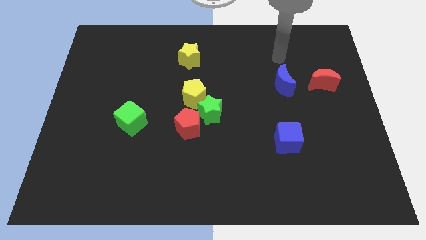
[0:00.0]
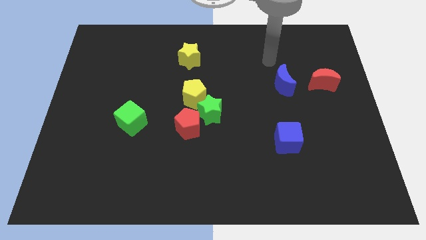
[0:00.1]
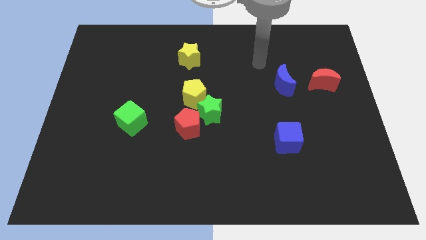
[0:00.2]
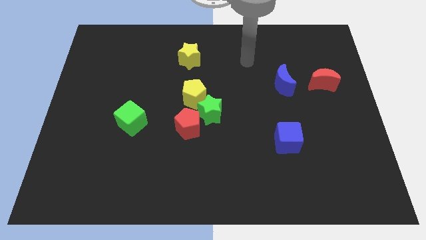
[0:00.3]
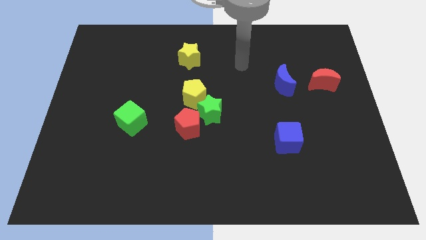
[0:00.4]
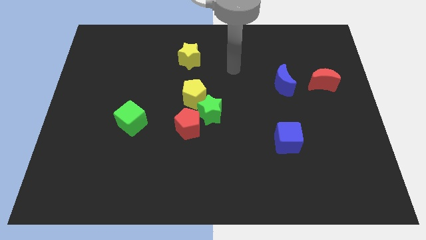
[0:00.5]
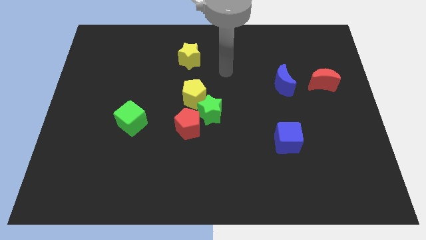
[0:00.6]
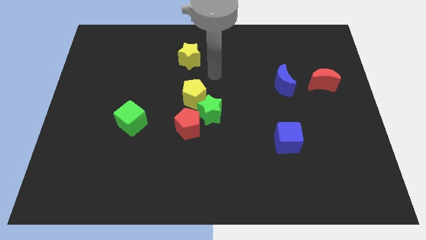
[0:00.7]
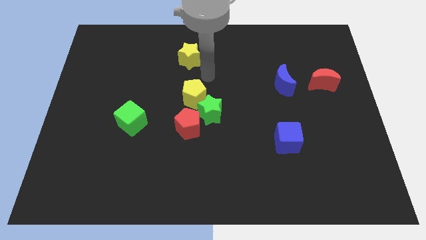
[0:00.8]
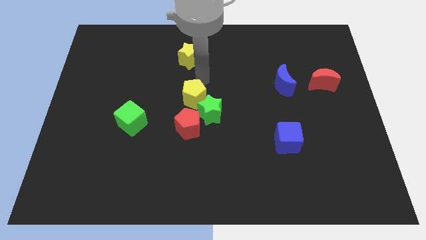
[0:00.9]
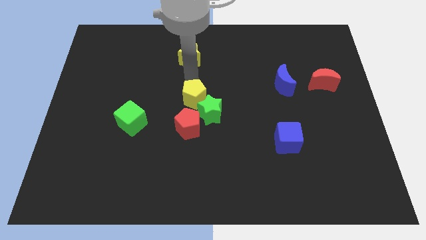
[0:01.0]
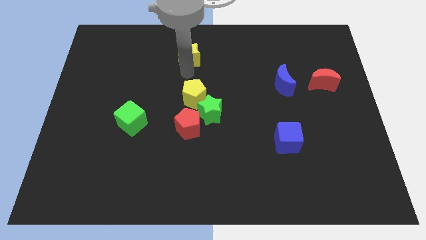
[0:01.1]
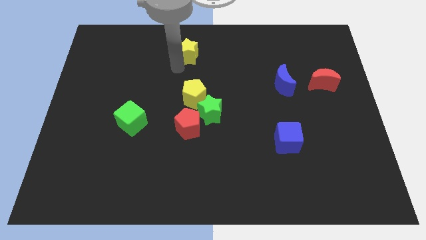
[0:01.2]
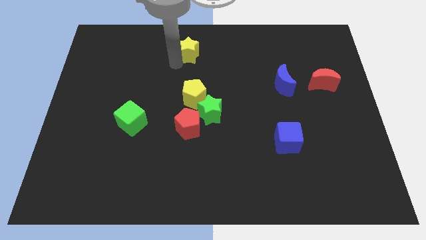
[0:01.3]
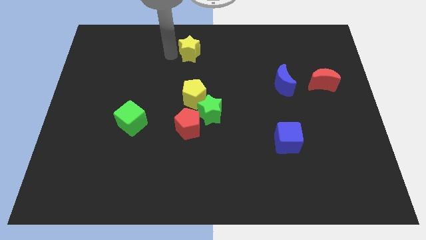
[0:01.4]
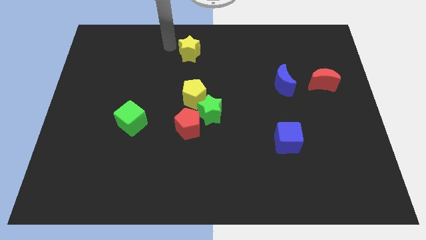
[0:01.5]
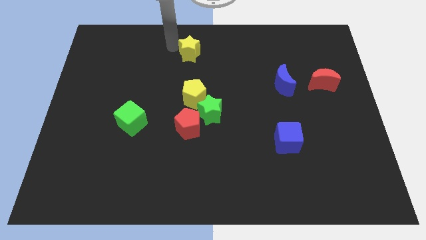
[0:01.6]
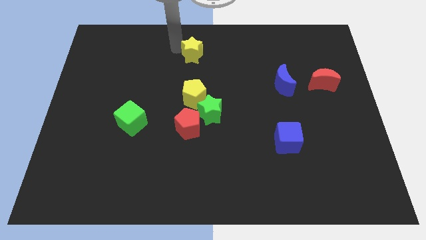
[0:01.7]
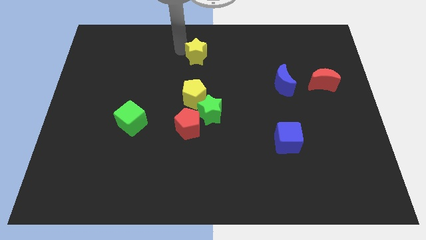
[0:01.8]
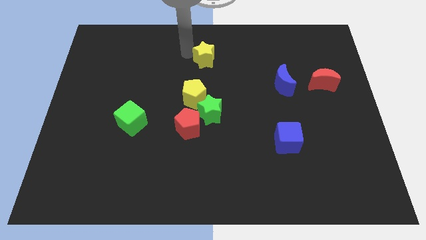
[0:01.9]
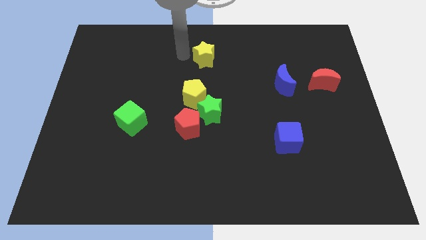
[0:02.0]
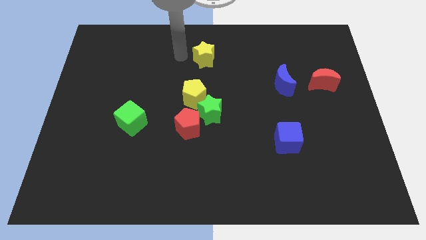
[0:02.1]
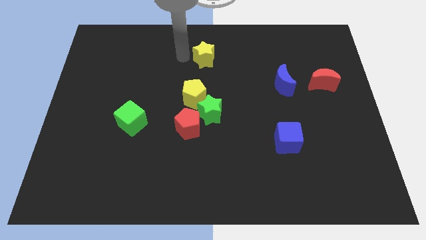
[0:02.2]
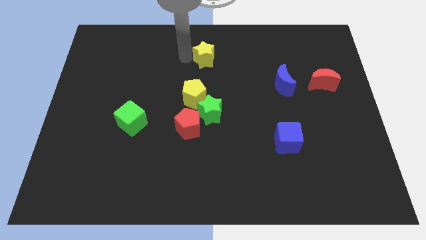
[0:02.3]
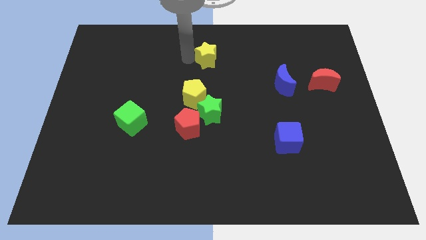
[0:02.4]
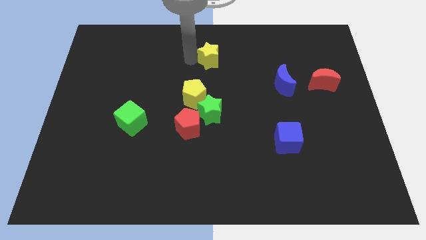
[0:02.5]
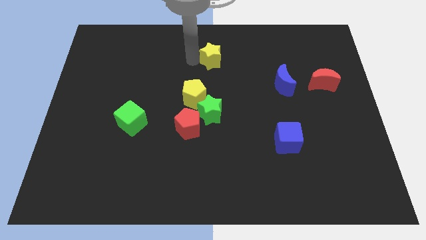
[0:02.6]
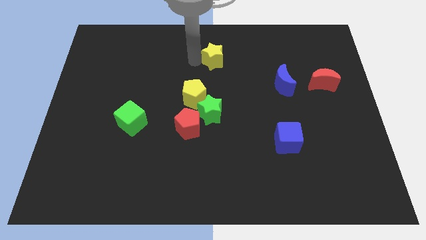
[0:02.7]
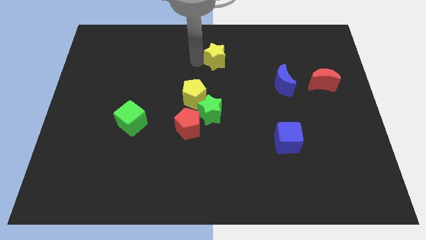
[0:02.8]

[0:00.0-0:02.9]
slide the yellow star right a bit

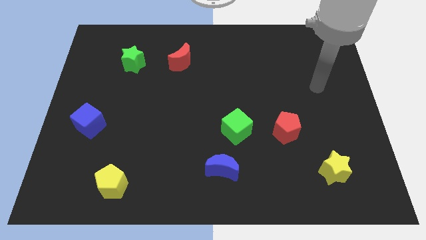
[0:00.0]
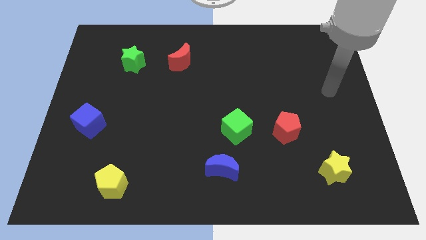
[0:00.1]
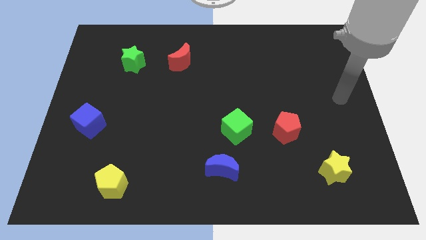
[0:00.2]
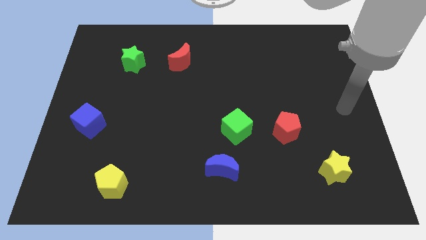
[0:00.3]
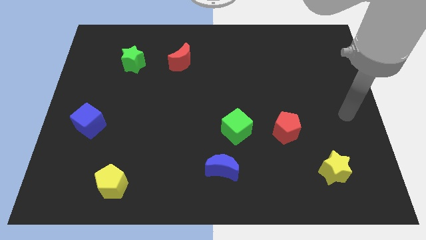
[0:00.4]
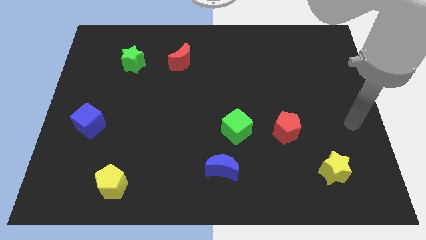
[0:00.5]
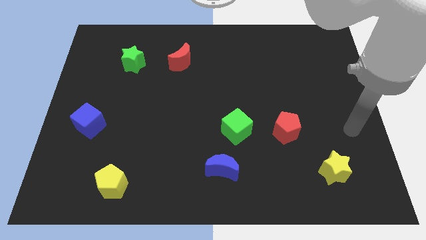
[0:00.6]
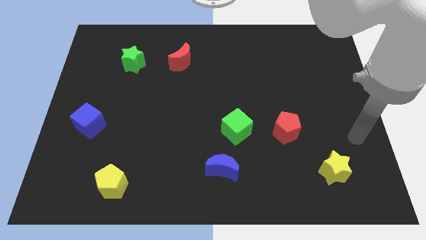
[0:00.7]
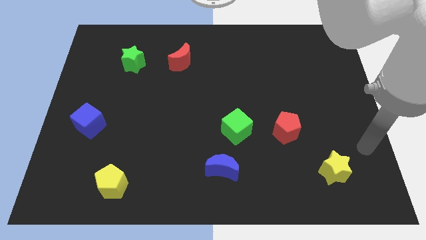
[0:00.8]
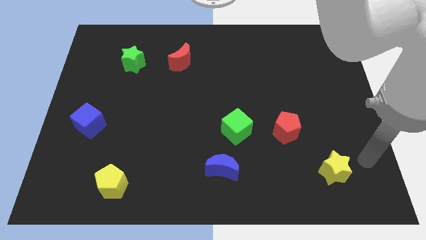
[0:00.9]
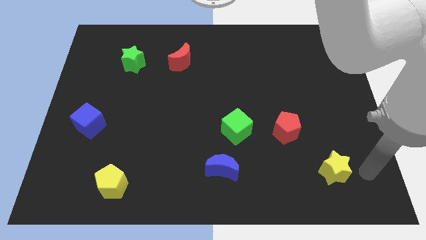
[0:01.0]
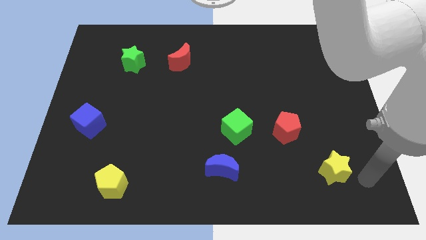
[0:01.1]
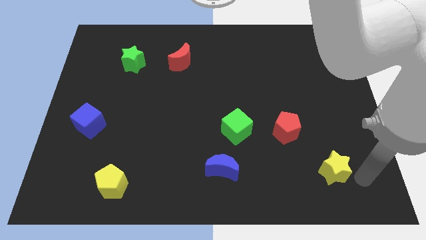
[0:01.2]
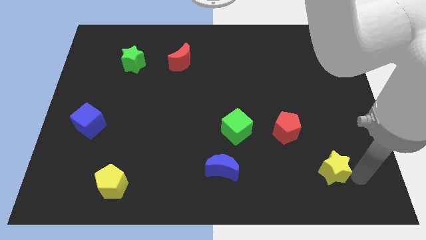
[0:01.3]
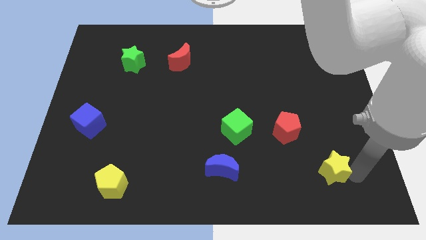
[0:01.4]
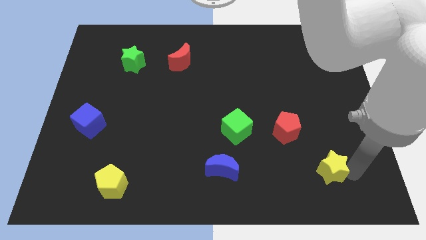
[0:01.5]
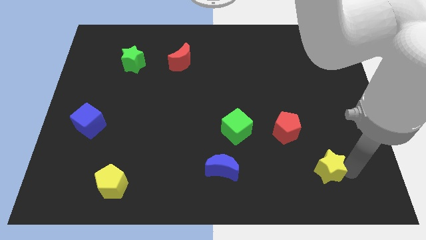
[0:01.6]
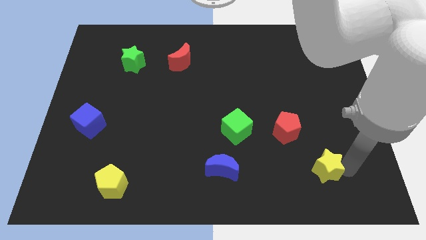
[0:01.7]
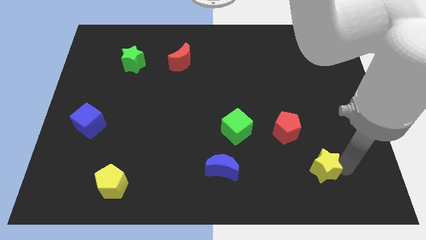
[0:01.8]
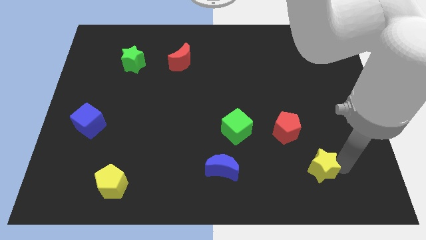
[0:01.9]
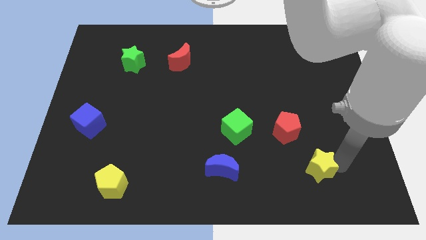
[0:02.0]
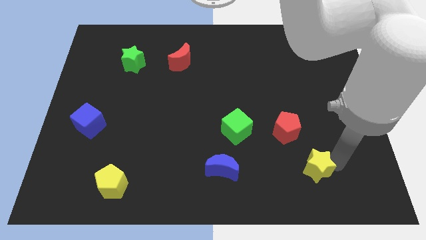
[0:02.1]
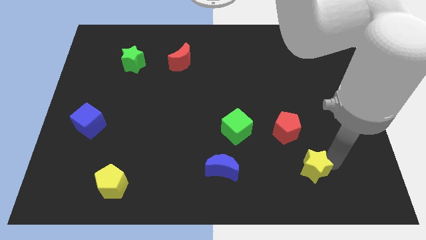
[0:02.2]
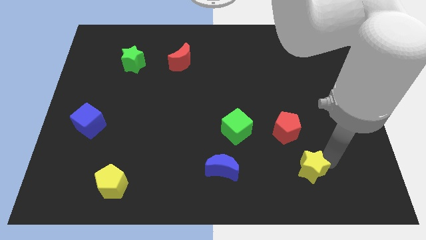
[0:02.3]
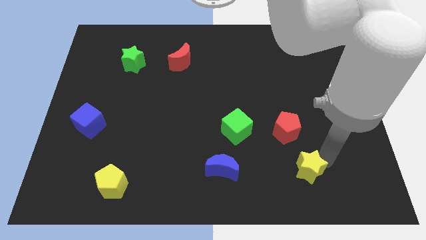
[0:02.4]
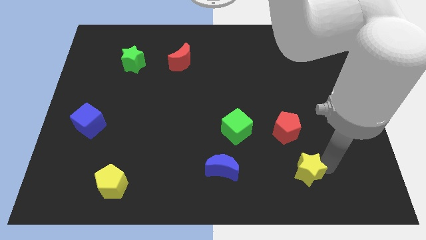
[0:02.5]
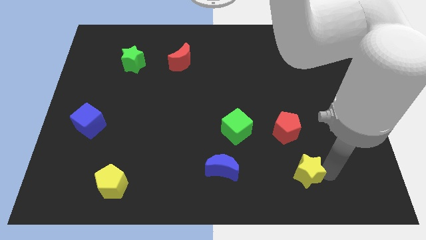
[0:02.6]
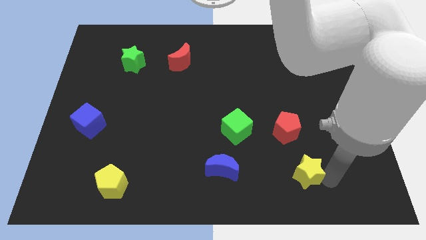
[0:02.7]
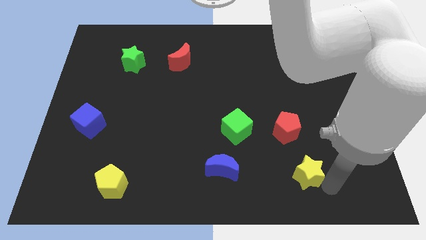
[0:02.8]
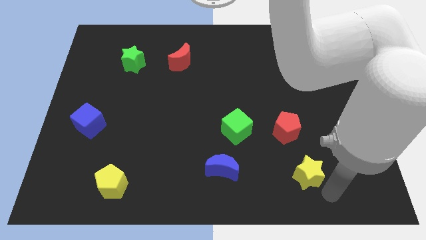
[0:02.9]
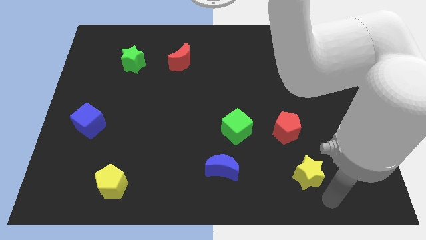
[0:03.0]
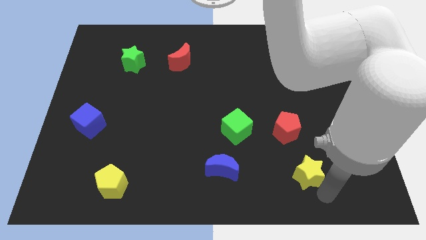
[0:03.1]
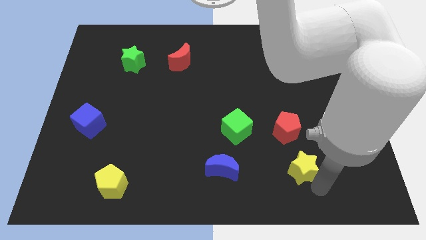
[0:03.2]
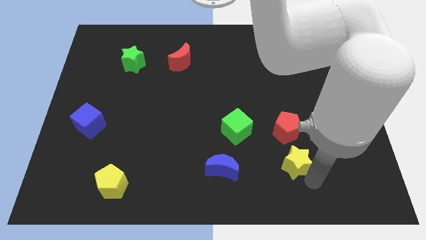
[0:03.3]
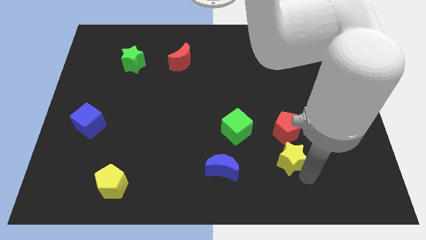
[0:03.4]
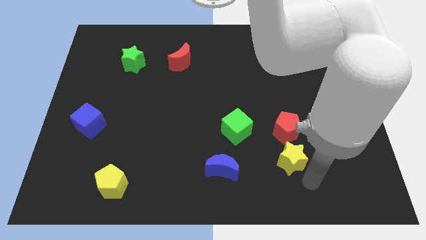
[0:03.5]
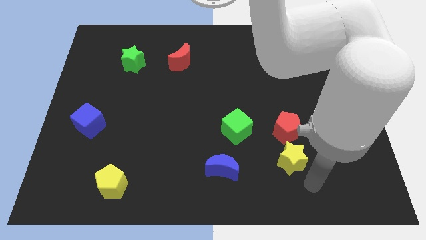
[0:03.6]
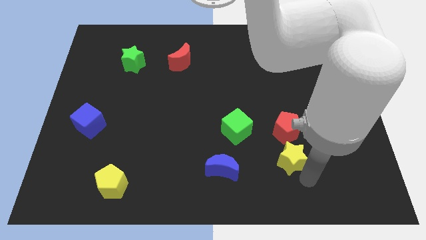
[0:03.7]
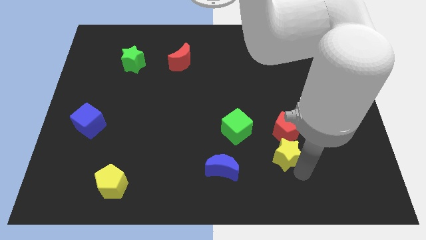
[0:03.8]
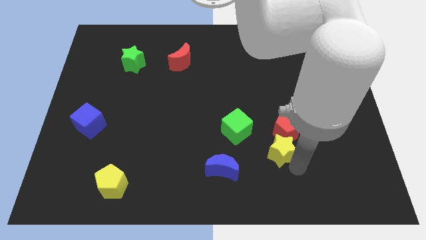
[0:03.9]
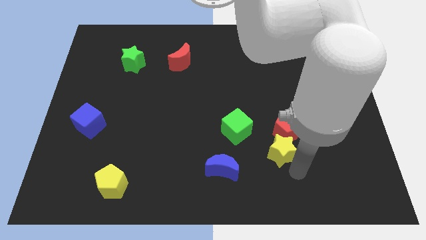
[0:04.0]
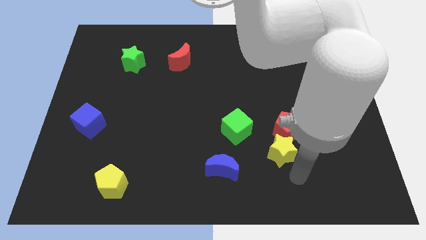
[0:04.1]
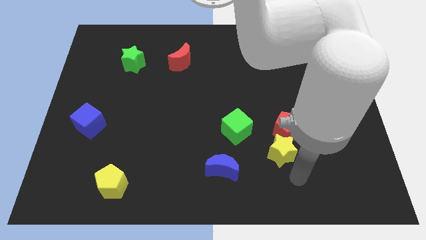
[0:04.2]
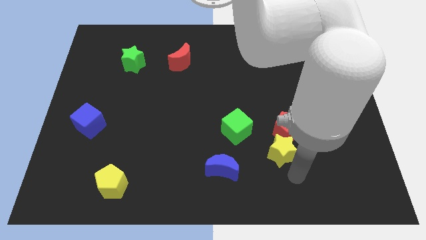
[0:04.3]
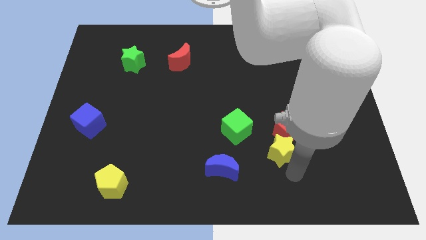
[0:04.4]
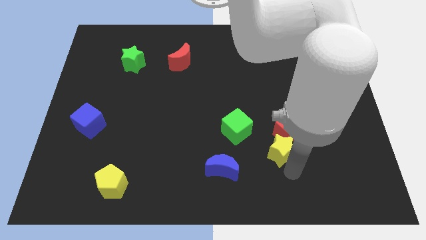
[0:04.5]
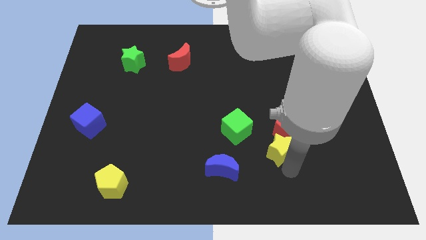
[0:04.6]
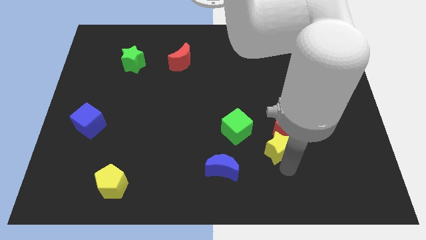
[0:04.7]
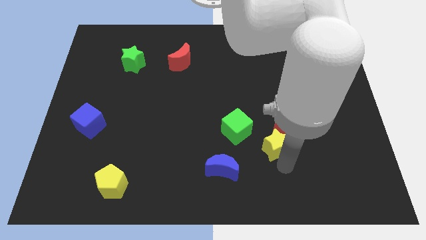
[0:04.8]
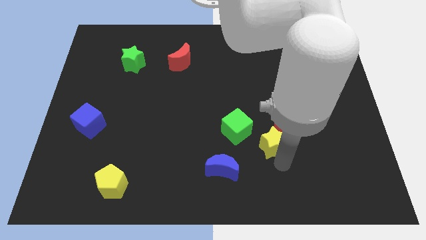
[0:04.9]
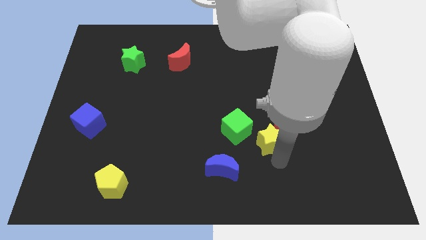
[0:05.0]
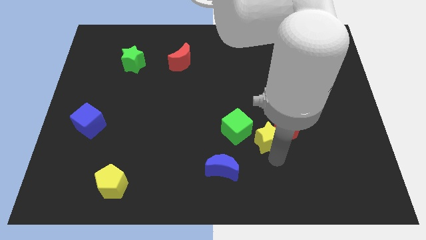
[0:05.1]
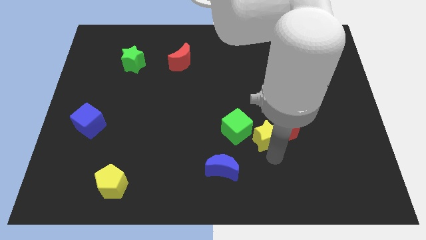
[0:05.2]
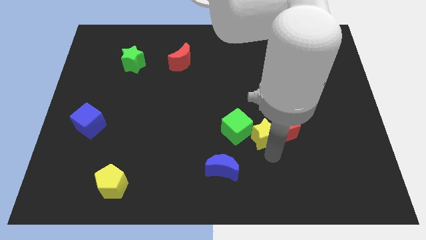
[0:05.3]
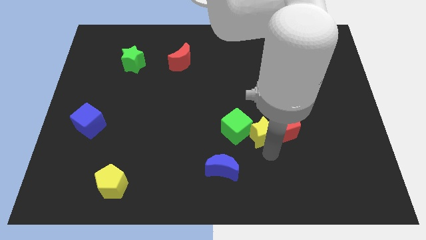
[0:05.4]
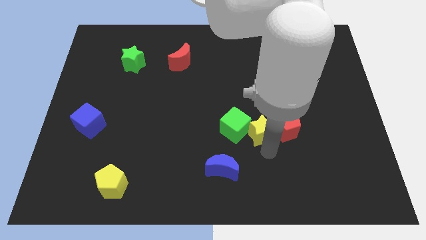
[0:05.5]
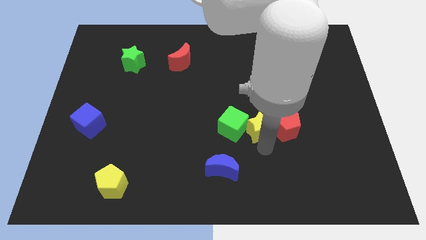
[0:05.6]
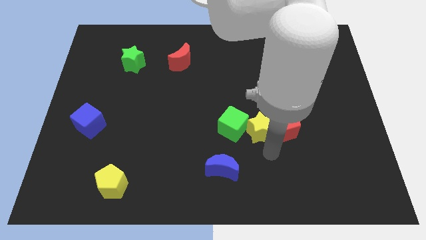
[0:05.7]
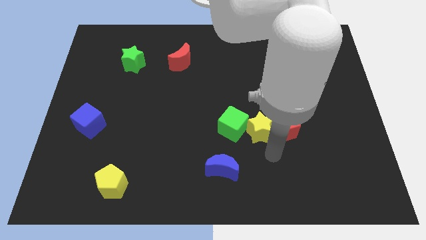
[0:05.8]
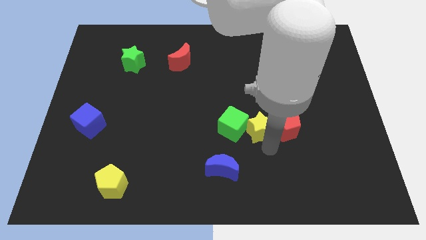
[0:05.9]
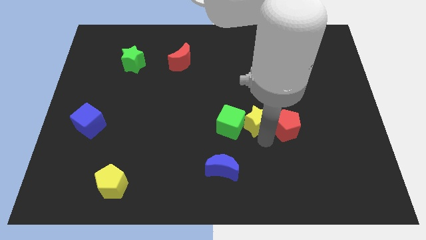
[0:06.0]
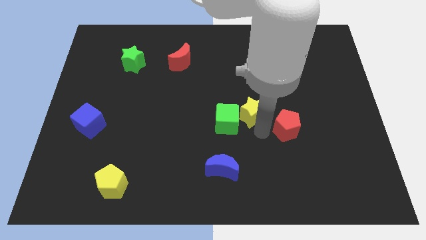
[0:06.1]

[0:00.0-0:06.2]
move the yellow star upwards and to the left diagonally
